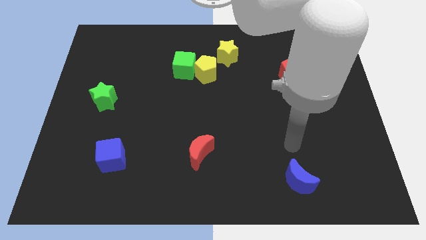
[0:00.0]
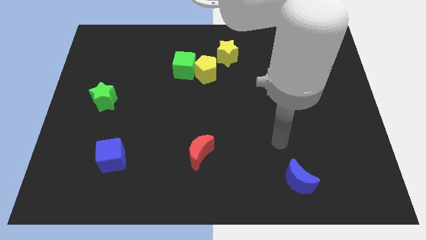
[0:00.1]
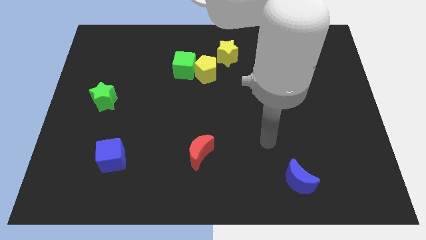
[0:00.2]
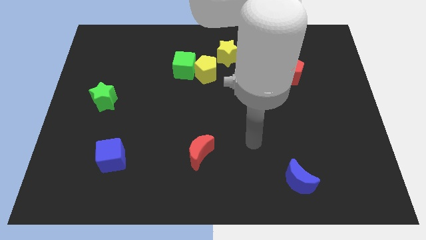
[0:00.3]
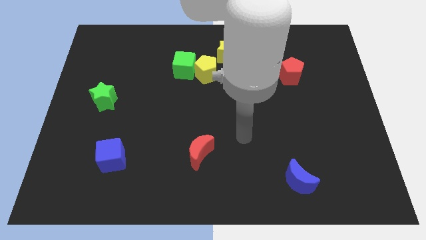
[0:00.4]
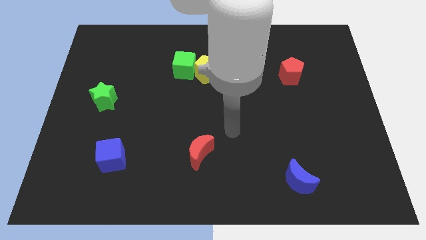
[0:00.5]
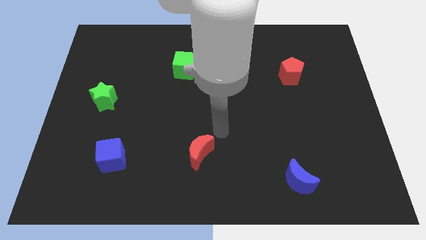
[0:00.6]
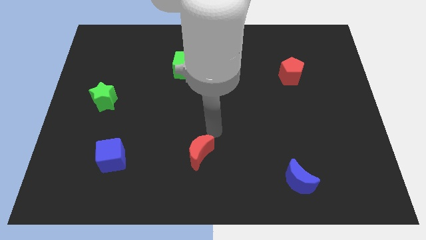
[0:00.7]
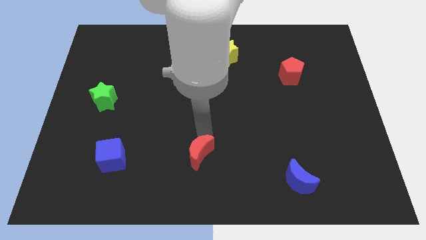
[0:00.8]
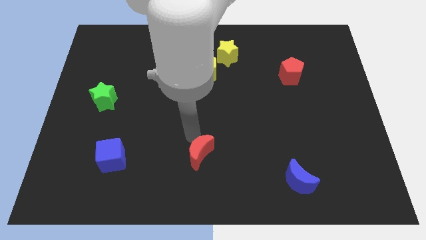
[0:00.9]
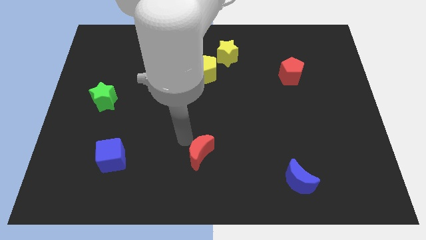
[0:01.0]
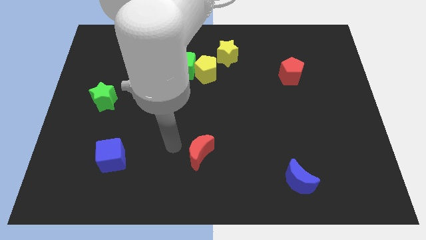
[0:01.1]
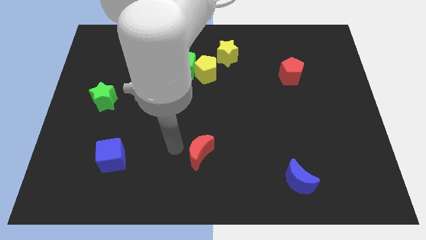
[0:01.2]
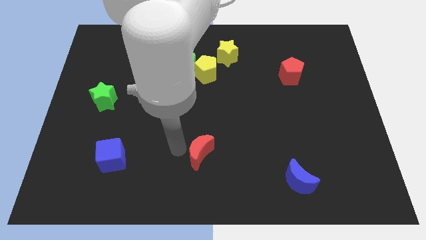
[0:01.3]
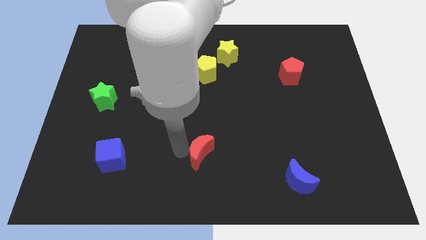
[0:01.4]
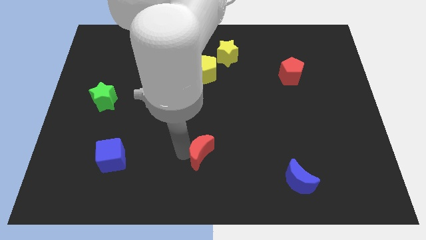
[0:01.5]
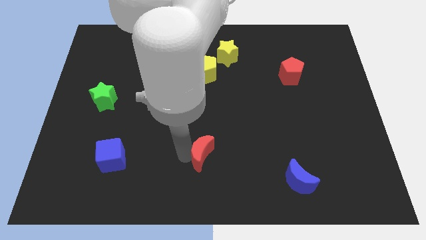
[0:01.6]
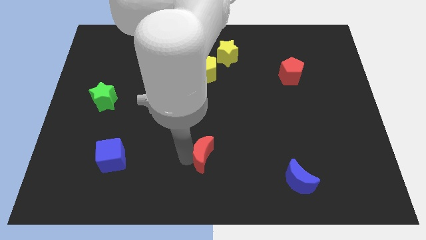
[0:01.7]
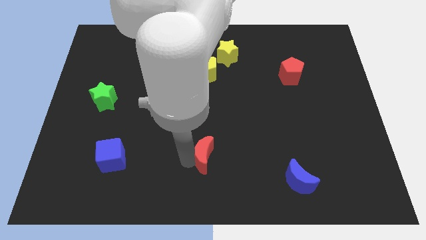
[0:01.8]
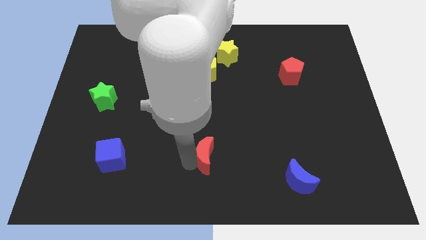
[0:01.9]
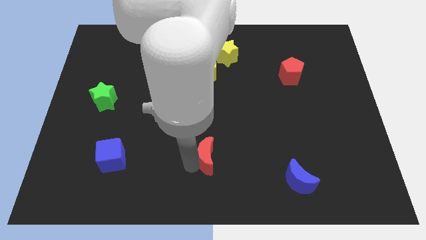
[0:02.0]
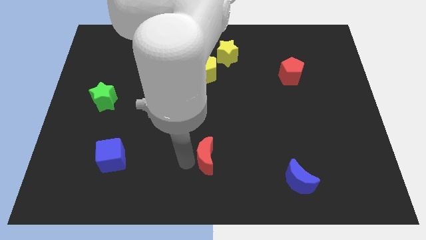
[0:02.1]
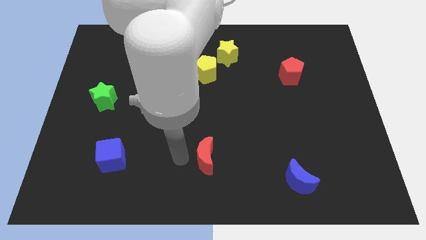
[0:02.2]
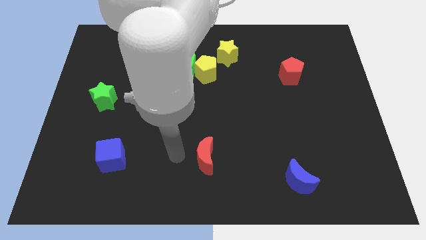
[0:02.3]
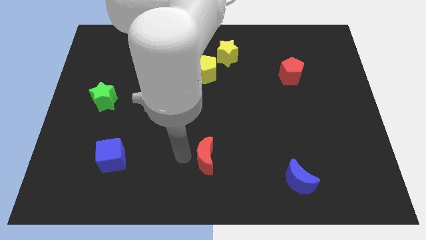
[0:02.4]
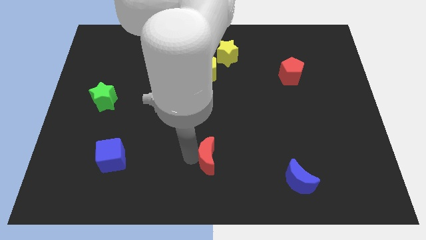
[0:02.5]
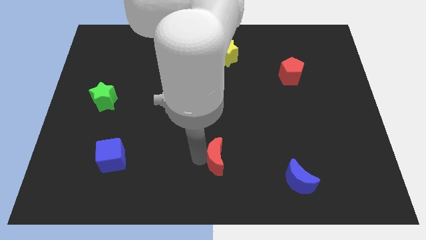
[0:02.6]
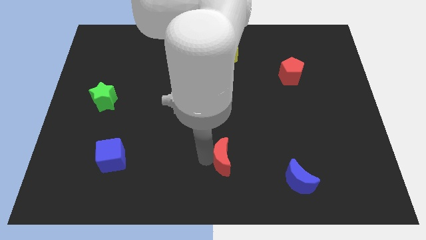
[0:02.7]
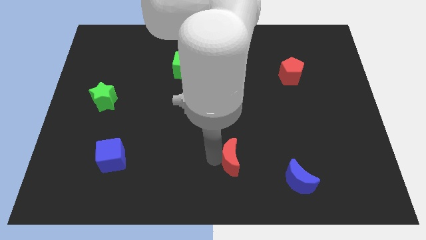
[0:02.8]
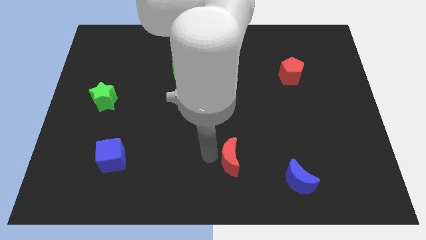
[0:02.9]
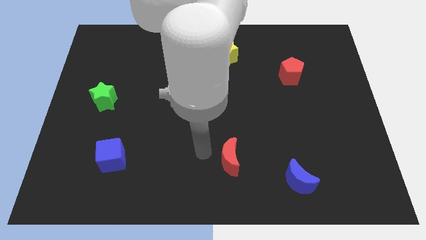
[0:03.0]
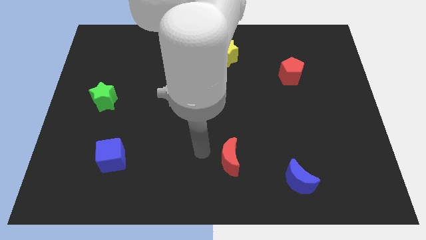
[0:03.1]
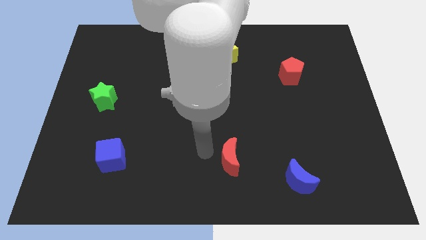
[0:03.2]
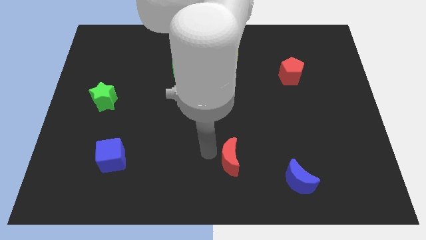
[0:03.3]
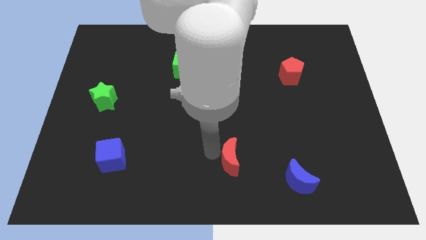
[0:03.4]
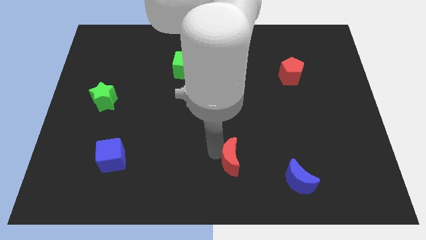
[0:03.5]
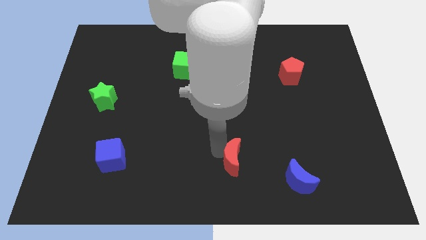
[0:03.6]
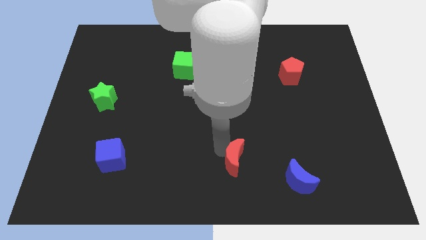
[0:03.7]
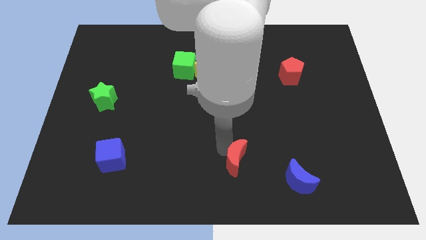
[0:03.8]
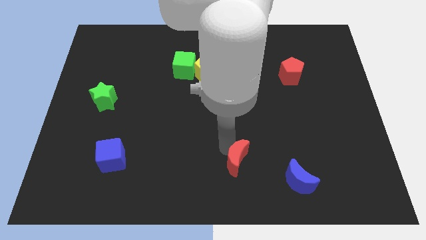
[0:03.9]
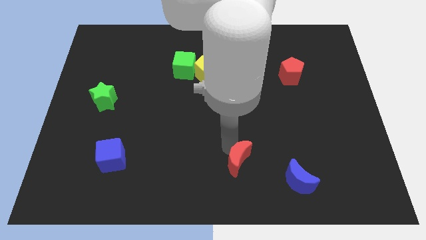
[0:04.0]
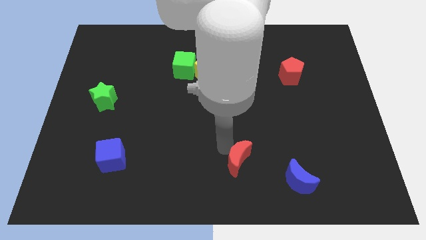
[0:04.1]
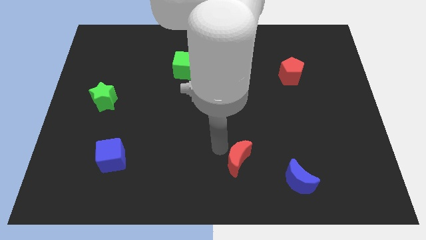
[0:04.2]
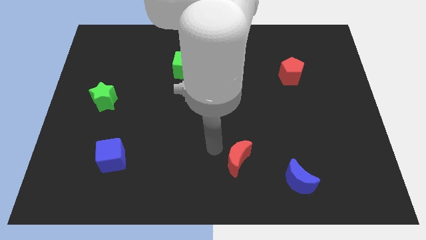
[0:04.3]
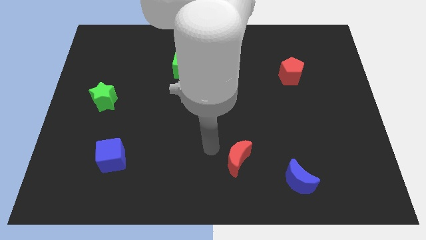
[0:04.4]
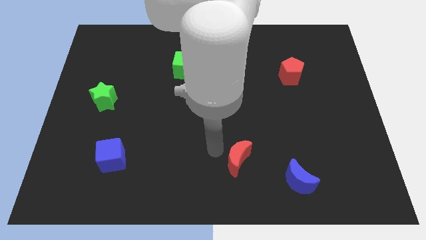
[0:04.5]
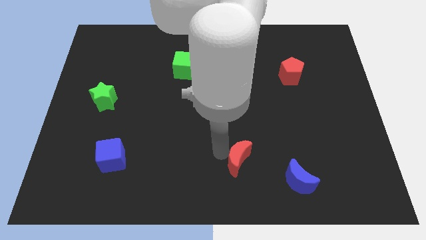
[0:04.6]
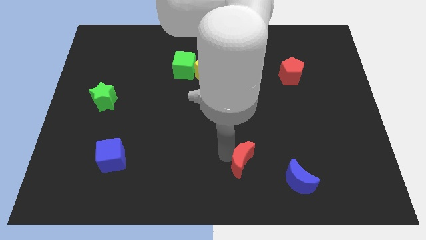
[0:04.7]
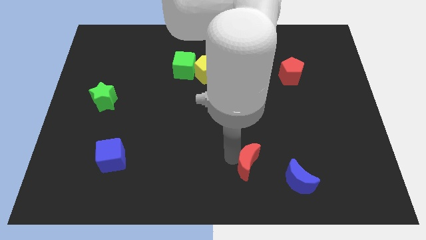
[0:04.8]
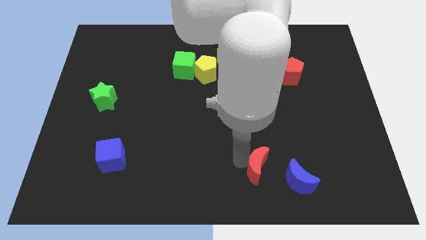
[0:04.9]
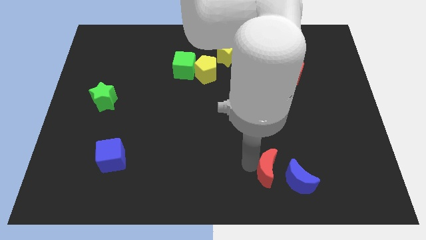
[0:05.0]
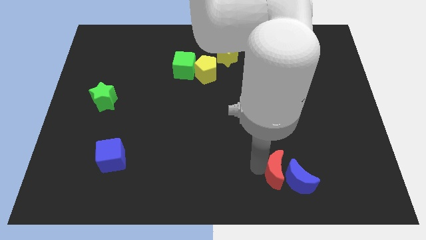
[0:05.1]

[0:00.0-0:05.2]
move the red moon towards the blue moon
